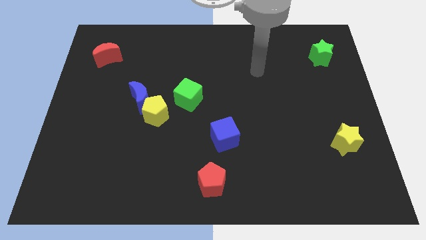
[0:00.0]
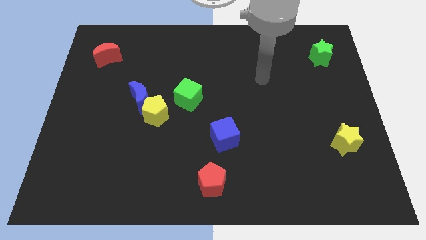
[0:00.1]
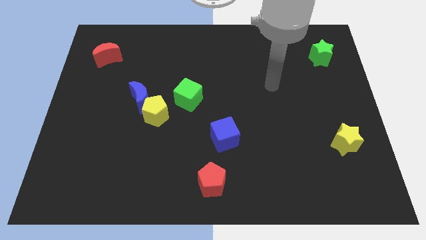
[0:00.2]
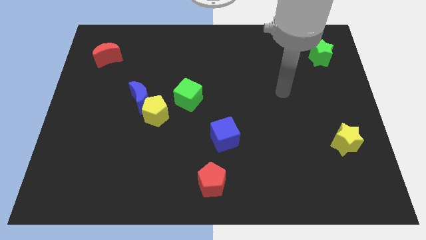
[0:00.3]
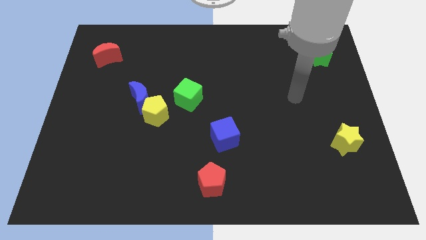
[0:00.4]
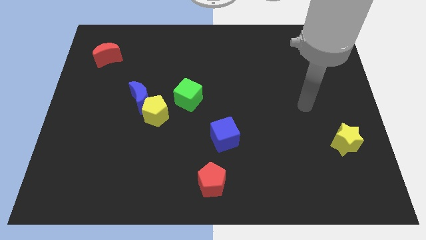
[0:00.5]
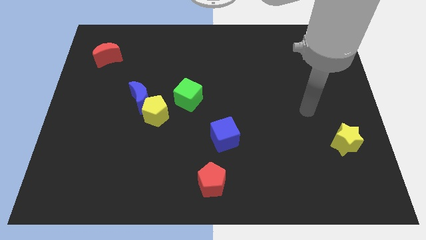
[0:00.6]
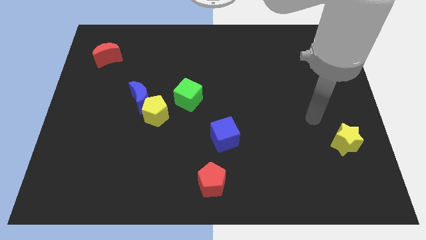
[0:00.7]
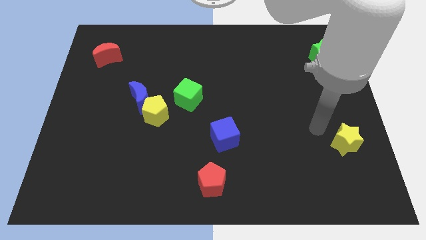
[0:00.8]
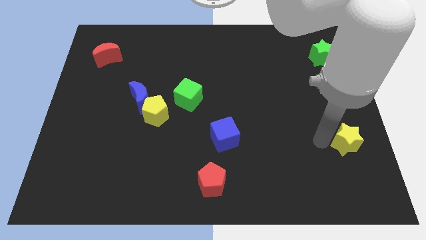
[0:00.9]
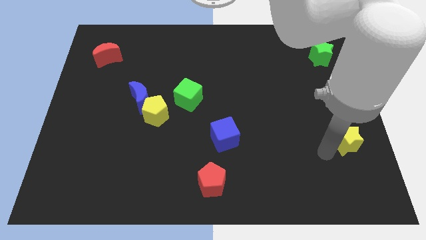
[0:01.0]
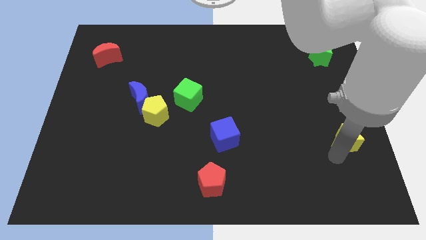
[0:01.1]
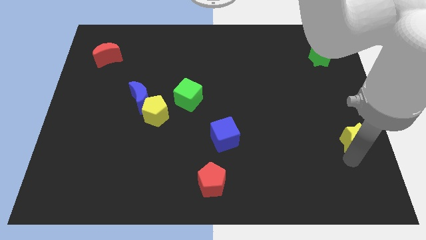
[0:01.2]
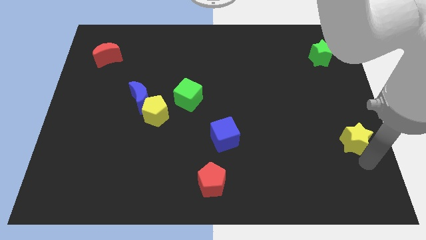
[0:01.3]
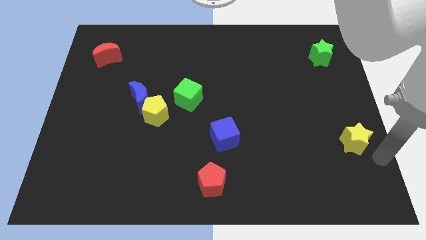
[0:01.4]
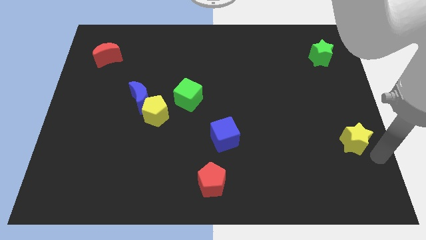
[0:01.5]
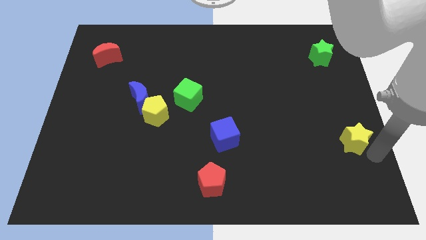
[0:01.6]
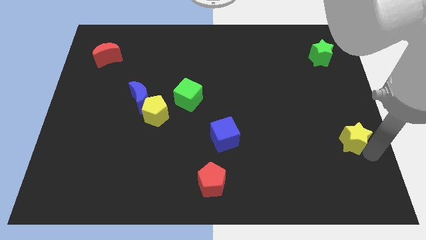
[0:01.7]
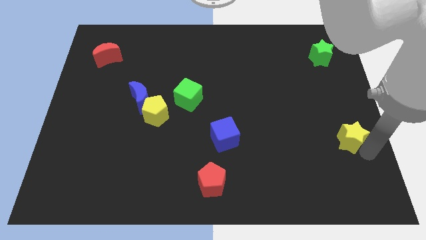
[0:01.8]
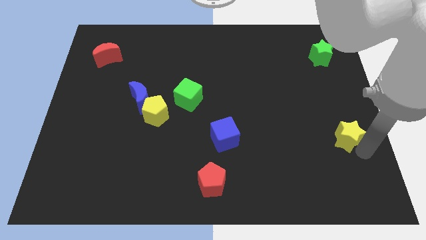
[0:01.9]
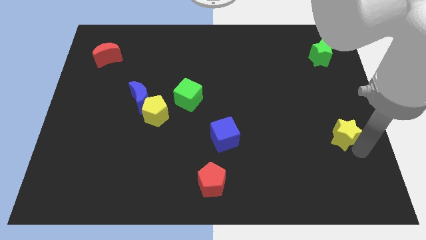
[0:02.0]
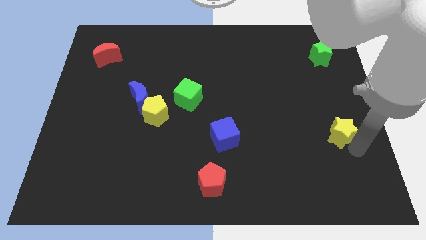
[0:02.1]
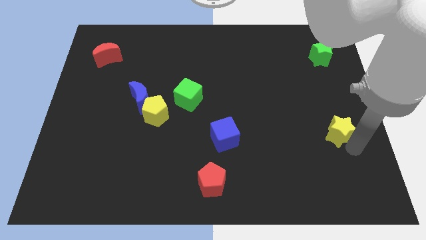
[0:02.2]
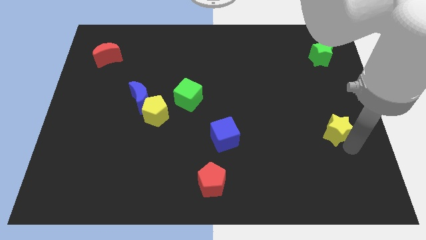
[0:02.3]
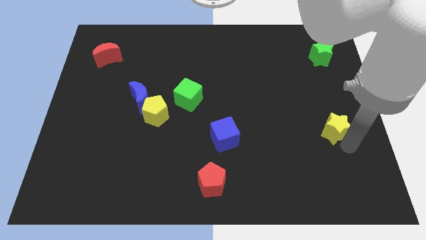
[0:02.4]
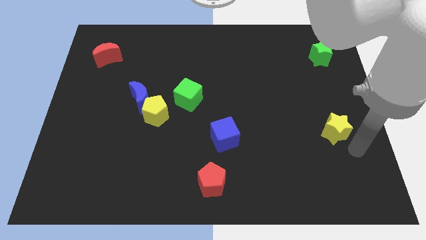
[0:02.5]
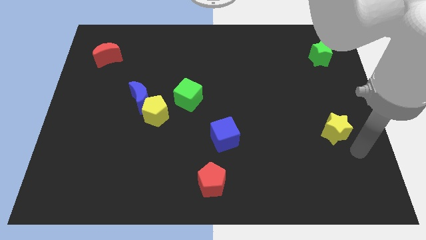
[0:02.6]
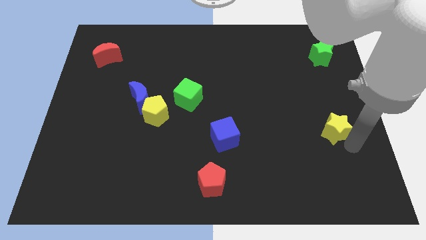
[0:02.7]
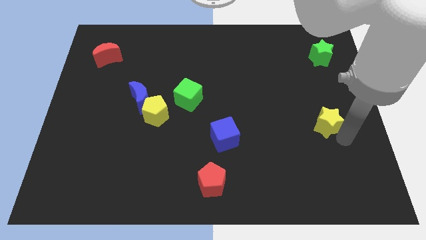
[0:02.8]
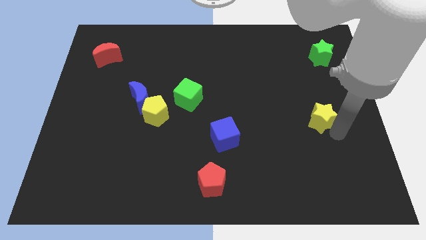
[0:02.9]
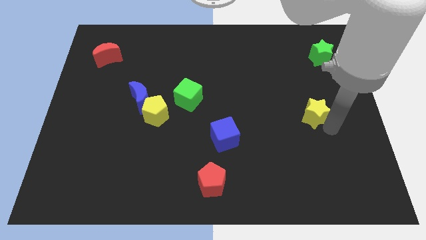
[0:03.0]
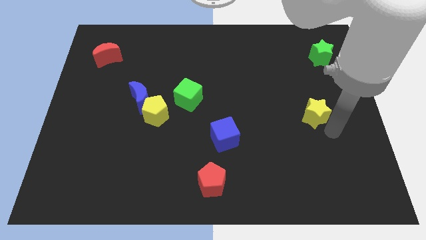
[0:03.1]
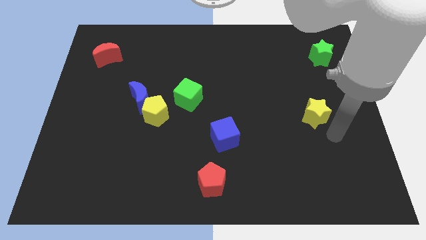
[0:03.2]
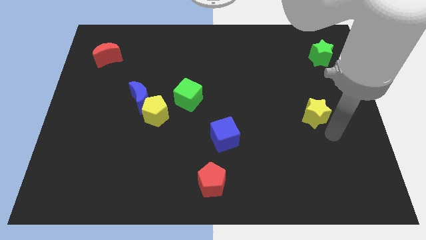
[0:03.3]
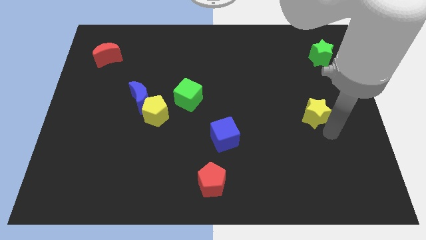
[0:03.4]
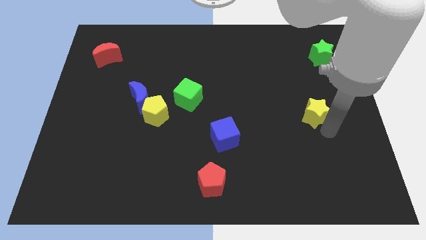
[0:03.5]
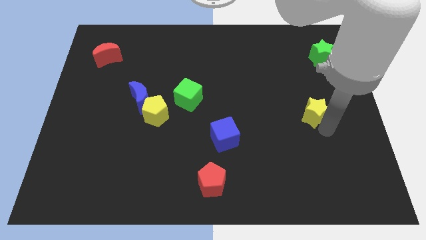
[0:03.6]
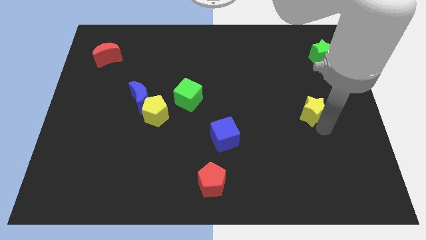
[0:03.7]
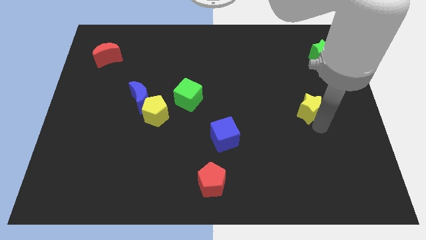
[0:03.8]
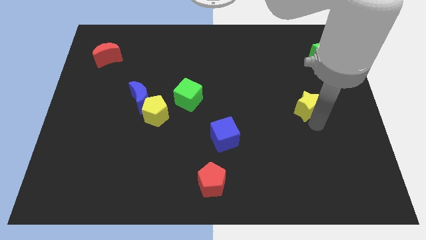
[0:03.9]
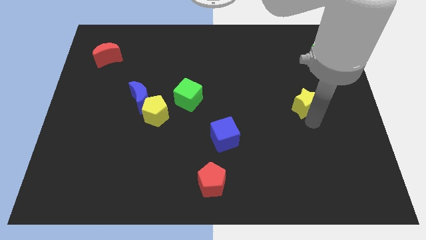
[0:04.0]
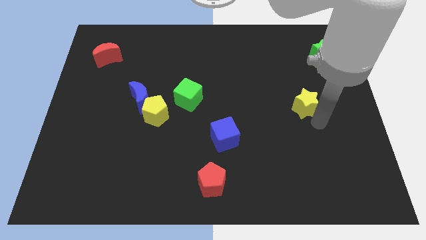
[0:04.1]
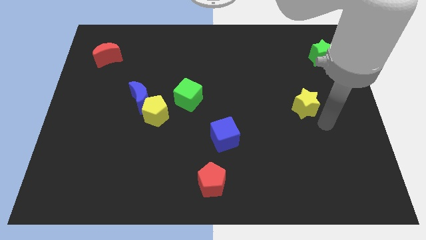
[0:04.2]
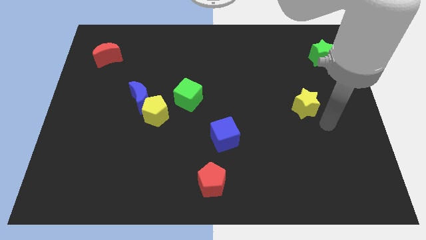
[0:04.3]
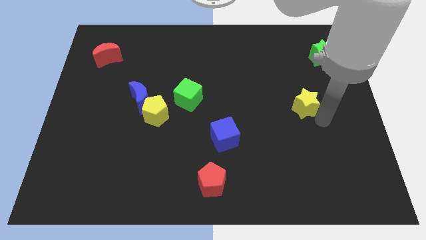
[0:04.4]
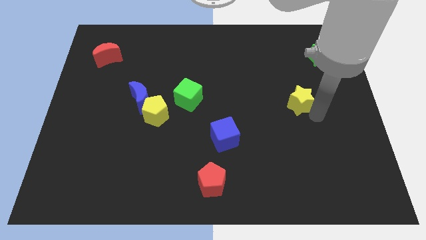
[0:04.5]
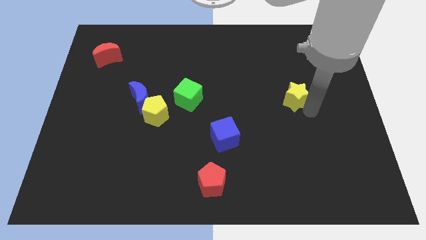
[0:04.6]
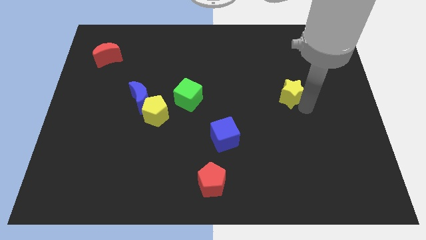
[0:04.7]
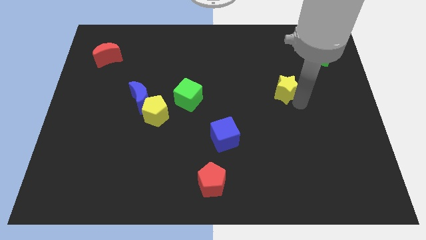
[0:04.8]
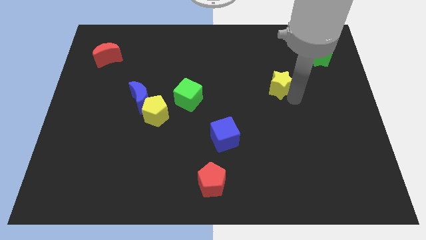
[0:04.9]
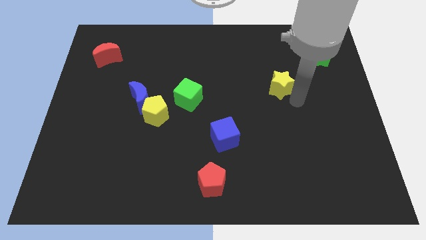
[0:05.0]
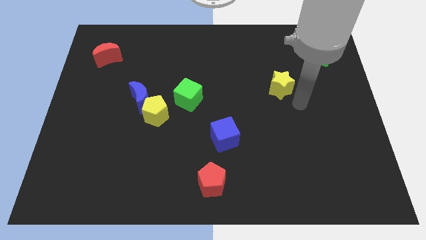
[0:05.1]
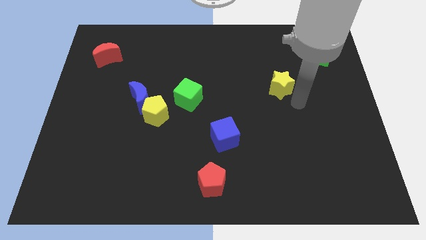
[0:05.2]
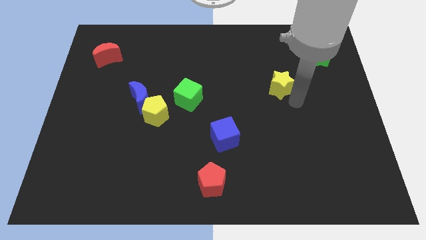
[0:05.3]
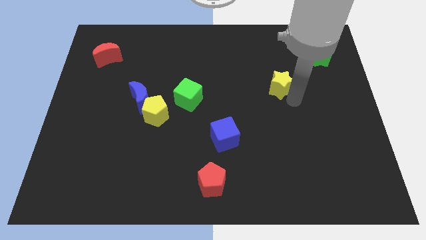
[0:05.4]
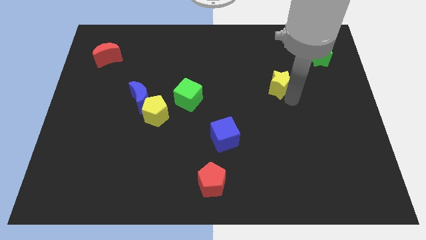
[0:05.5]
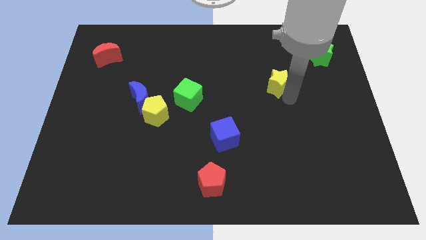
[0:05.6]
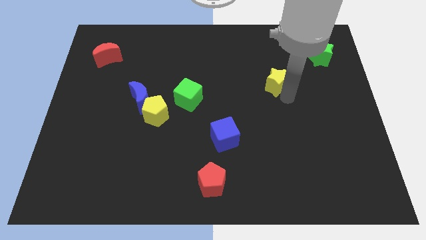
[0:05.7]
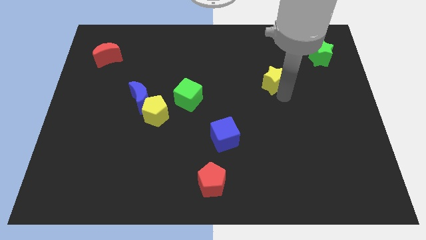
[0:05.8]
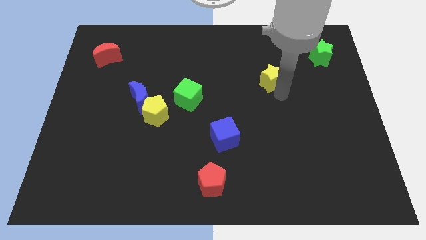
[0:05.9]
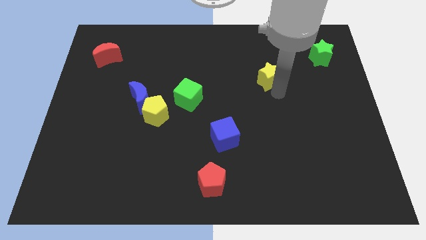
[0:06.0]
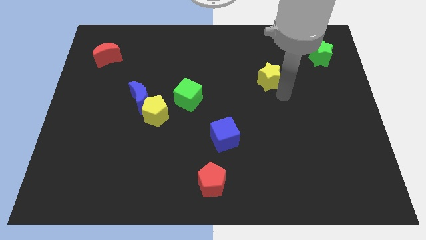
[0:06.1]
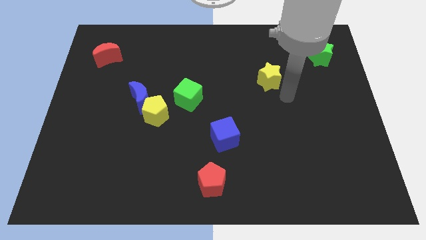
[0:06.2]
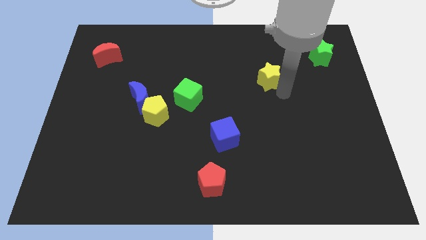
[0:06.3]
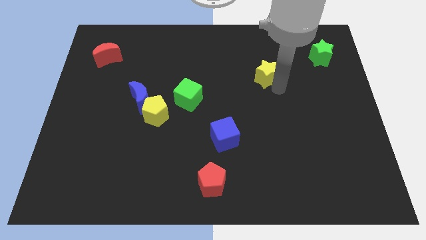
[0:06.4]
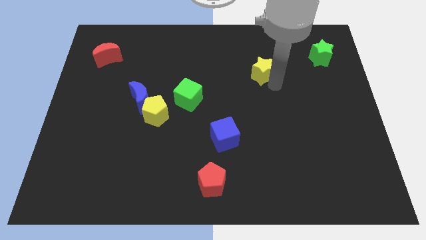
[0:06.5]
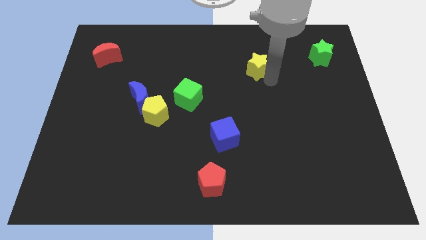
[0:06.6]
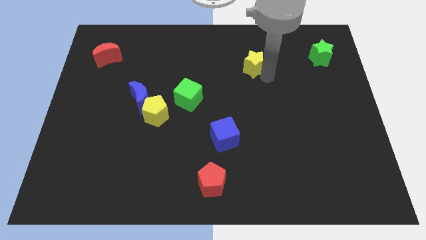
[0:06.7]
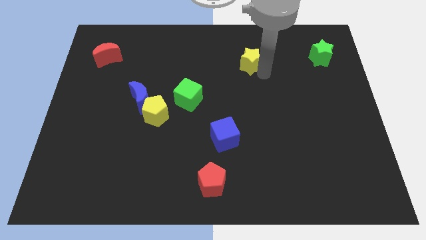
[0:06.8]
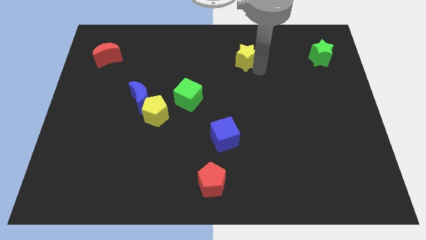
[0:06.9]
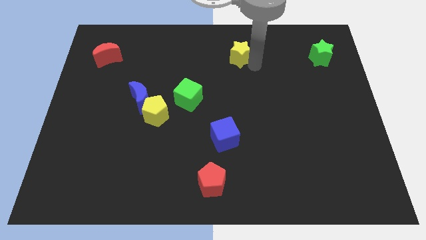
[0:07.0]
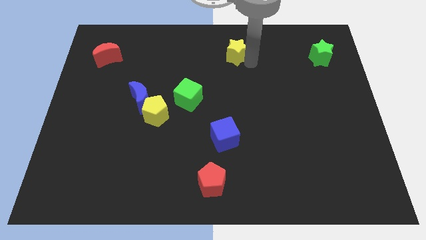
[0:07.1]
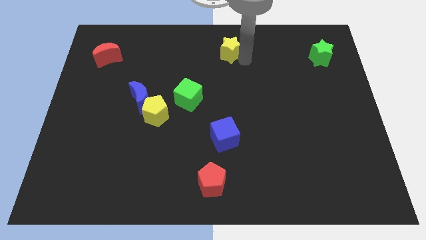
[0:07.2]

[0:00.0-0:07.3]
push the yellow star to the top side

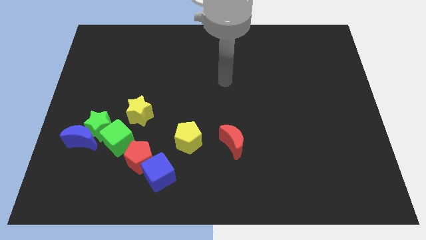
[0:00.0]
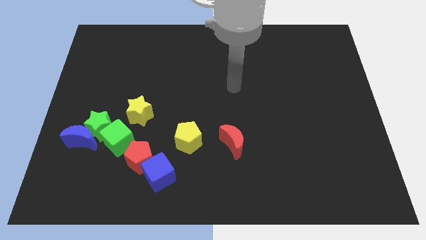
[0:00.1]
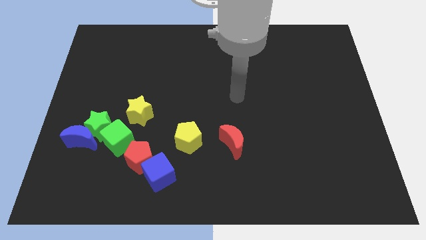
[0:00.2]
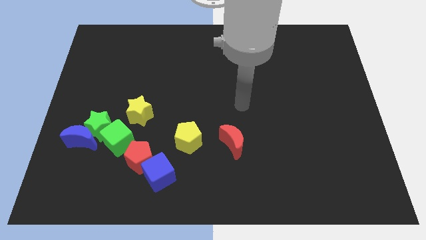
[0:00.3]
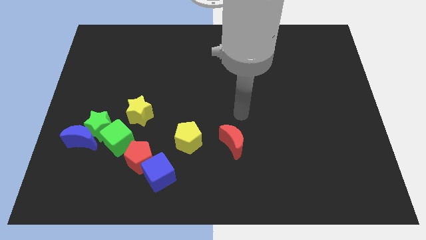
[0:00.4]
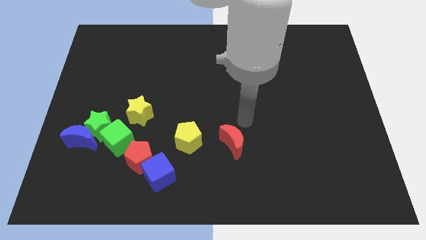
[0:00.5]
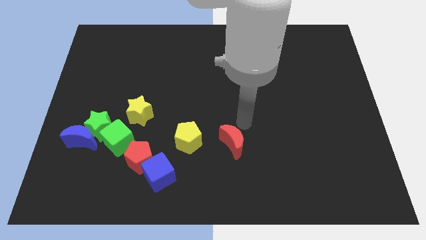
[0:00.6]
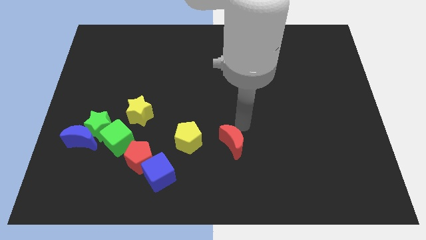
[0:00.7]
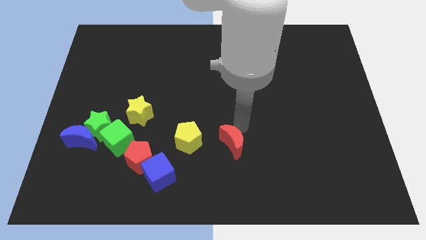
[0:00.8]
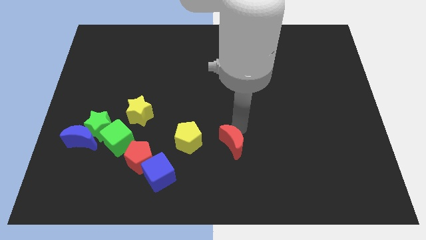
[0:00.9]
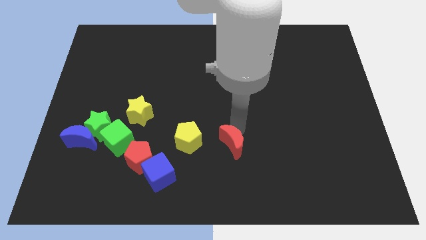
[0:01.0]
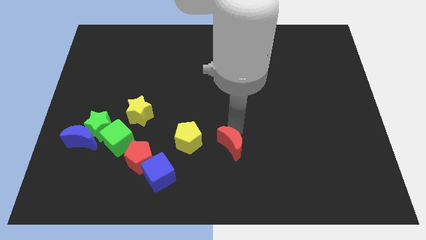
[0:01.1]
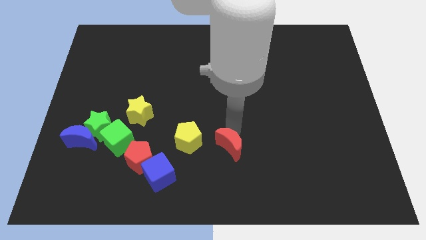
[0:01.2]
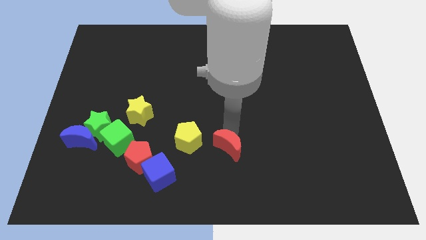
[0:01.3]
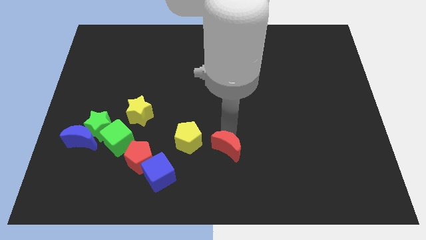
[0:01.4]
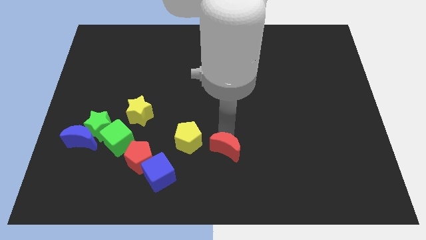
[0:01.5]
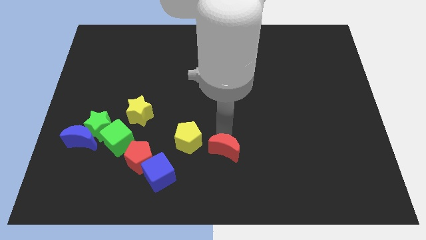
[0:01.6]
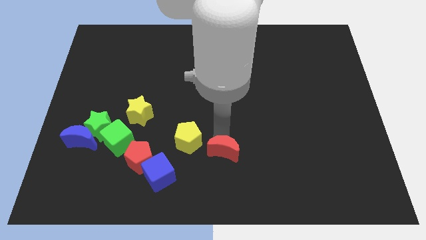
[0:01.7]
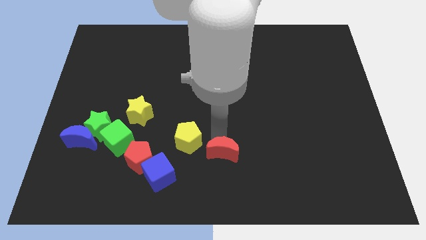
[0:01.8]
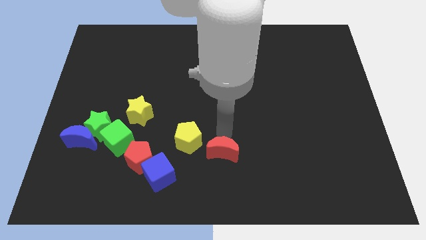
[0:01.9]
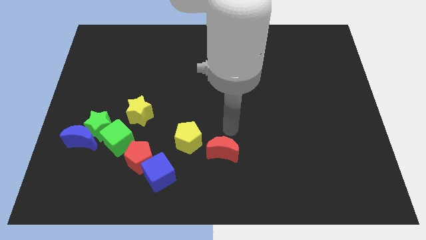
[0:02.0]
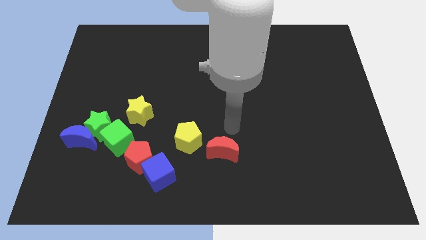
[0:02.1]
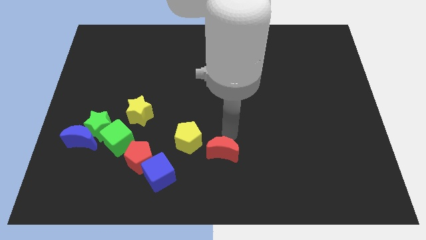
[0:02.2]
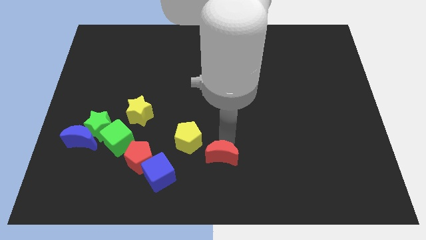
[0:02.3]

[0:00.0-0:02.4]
move the red moon to the bottom
